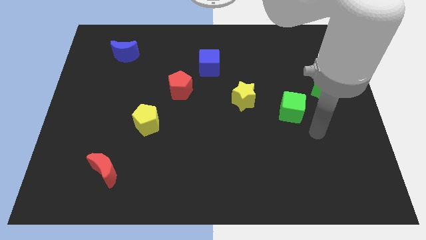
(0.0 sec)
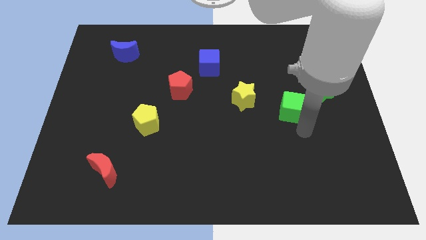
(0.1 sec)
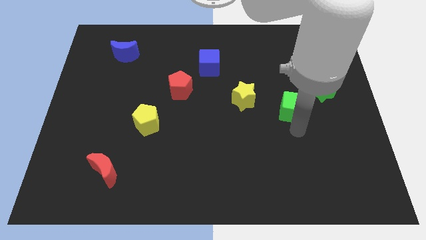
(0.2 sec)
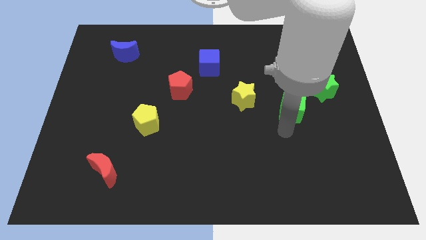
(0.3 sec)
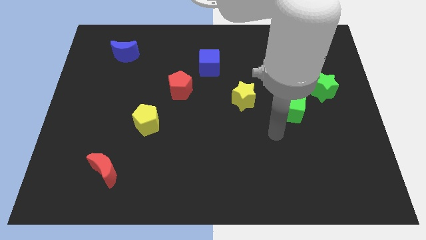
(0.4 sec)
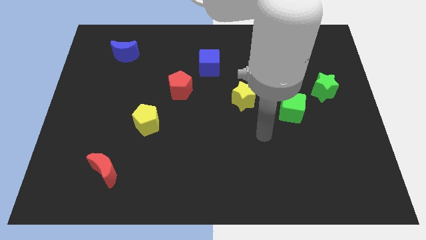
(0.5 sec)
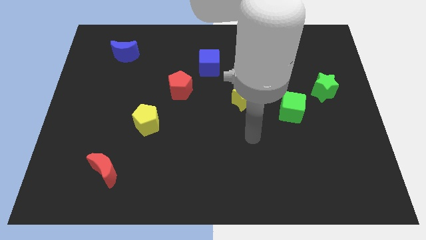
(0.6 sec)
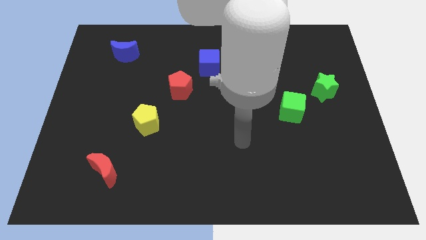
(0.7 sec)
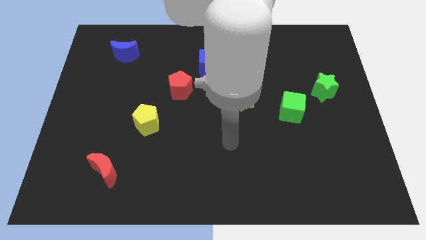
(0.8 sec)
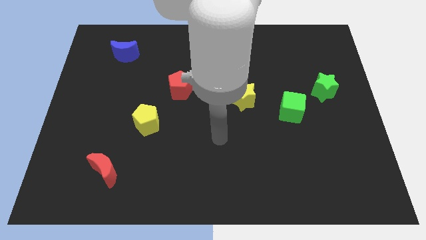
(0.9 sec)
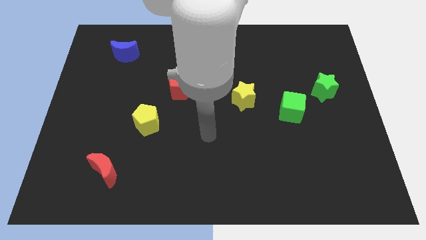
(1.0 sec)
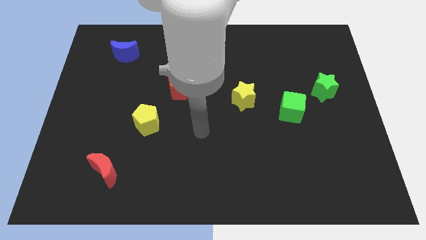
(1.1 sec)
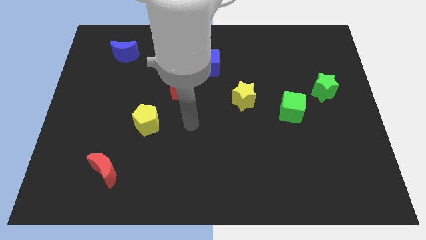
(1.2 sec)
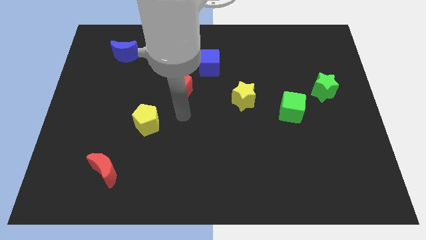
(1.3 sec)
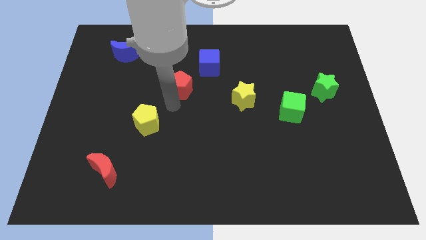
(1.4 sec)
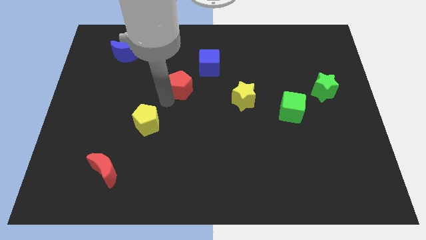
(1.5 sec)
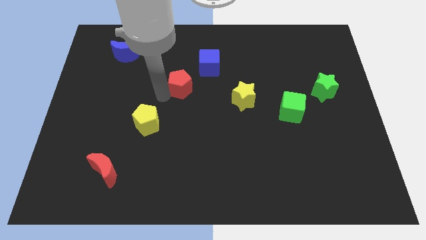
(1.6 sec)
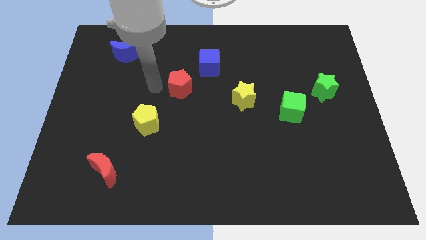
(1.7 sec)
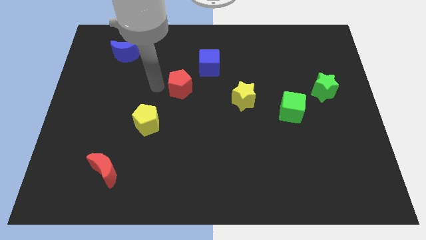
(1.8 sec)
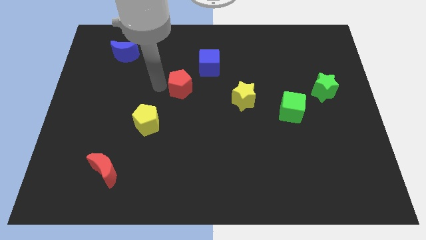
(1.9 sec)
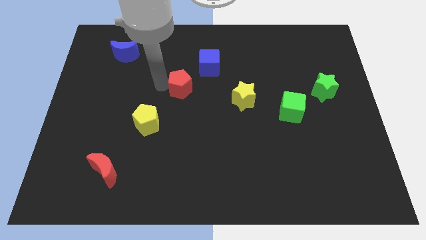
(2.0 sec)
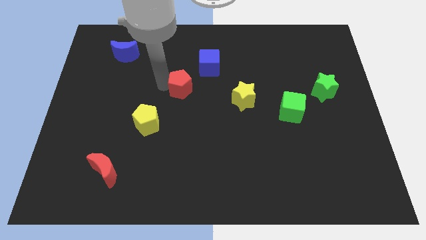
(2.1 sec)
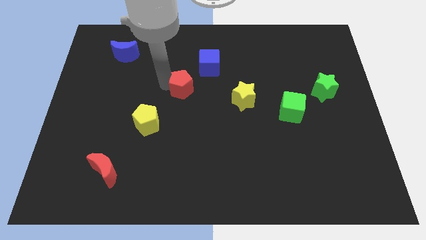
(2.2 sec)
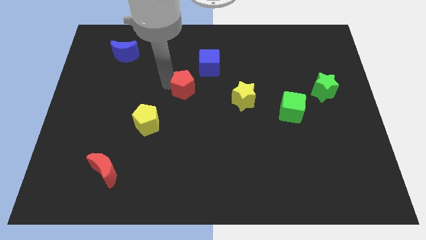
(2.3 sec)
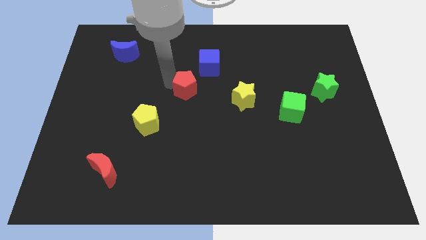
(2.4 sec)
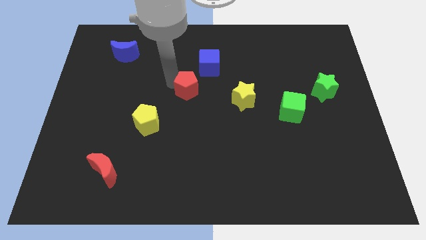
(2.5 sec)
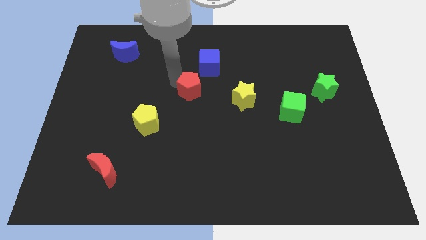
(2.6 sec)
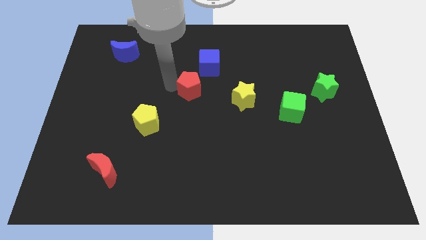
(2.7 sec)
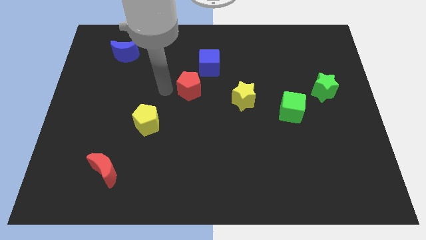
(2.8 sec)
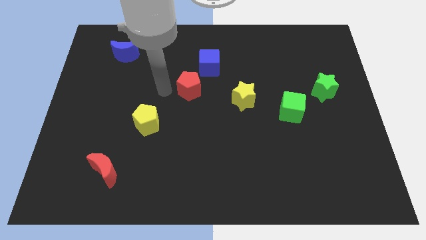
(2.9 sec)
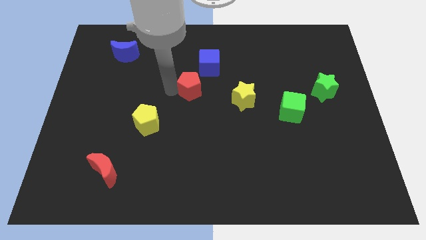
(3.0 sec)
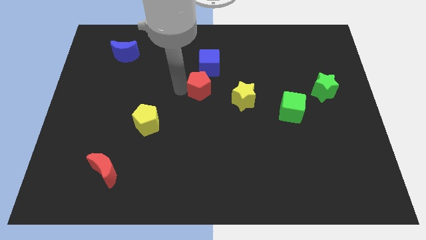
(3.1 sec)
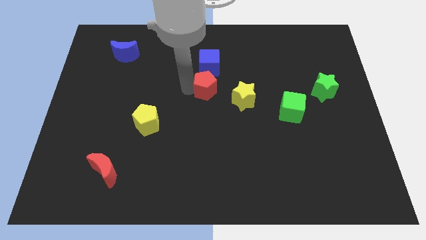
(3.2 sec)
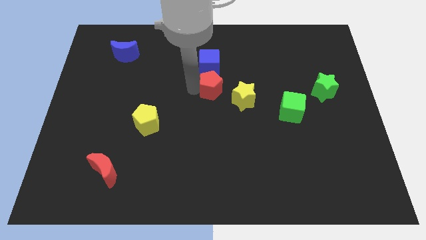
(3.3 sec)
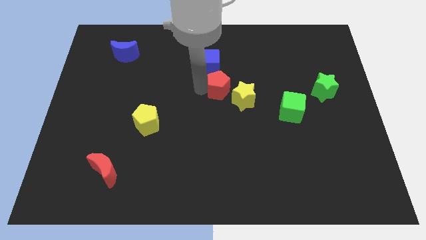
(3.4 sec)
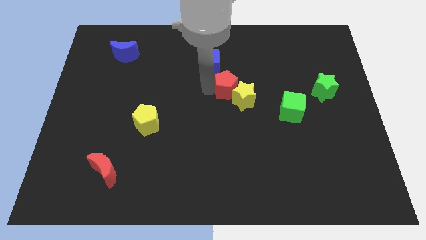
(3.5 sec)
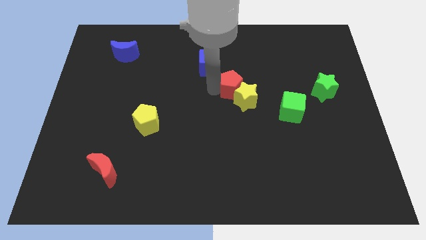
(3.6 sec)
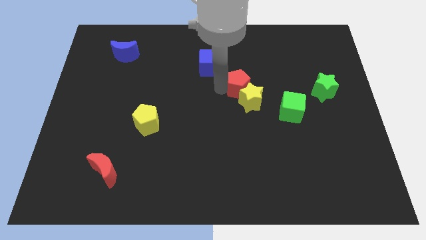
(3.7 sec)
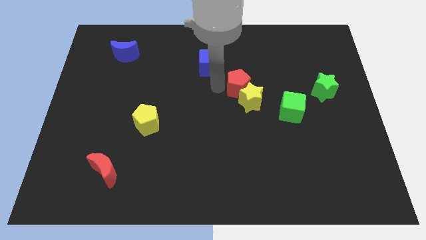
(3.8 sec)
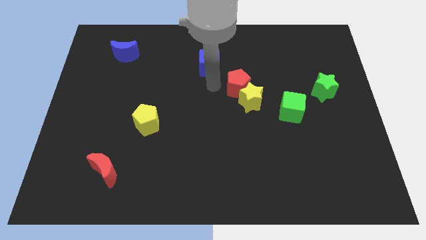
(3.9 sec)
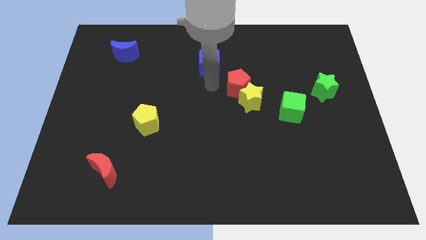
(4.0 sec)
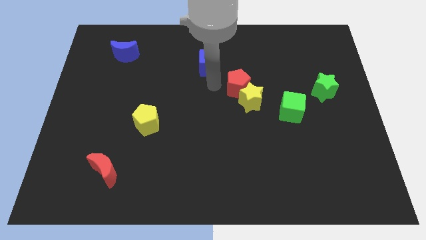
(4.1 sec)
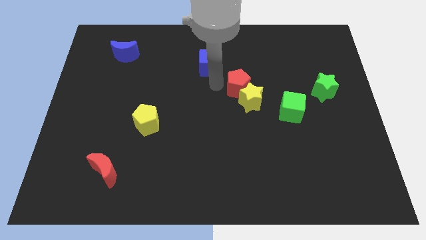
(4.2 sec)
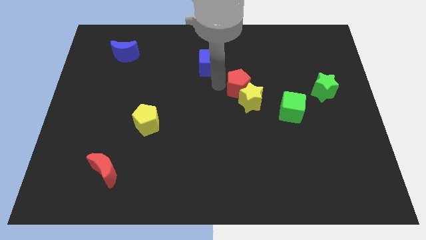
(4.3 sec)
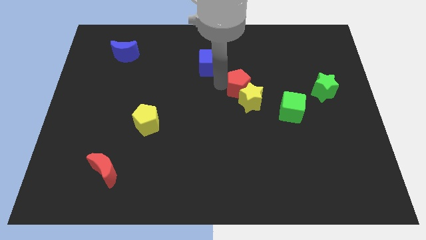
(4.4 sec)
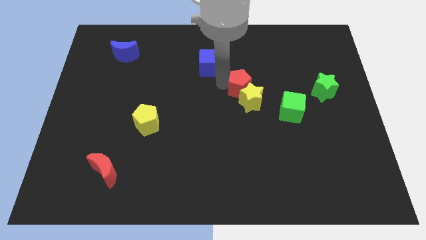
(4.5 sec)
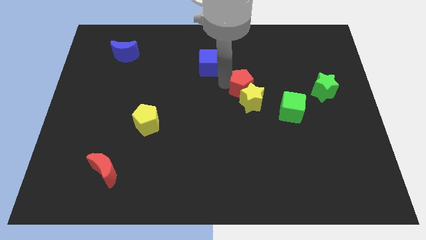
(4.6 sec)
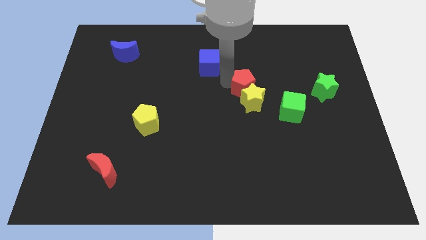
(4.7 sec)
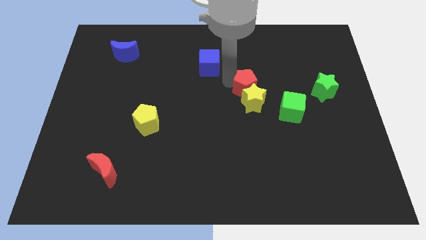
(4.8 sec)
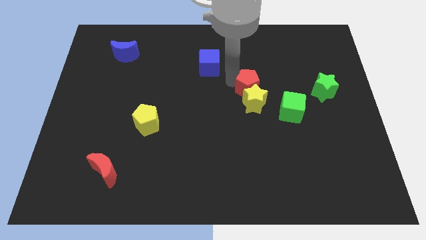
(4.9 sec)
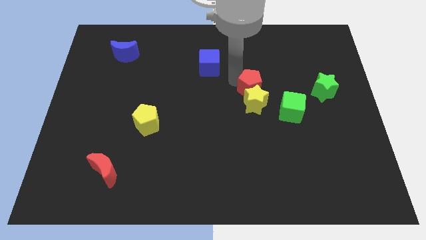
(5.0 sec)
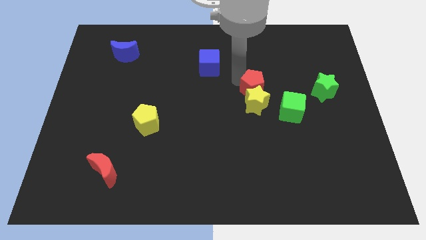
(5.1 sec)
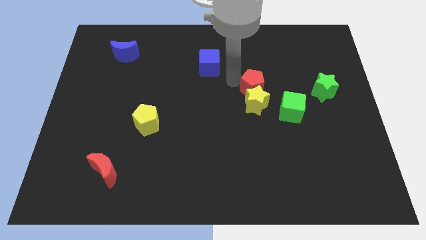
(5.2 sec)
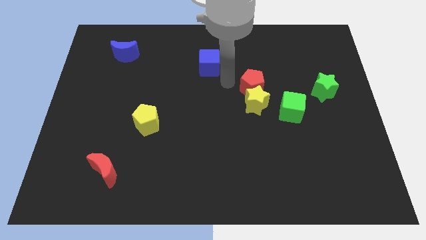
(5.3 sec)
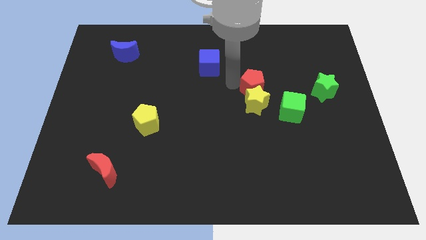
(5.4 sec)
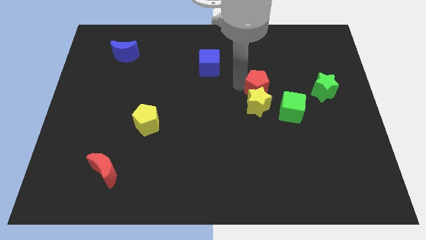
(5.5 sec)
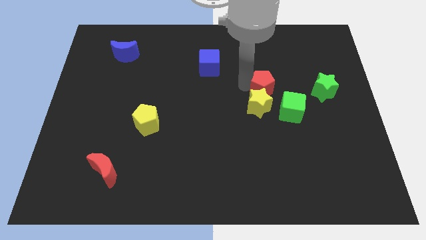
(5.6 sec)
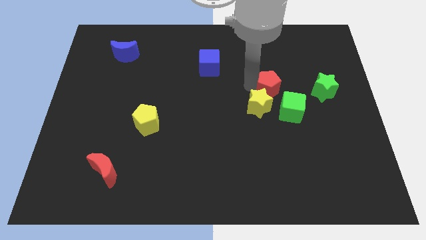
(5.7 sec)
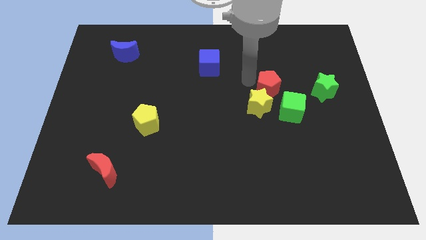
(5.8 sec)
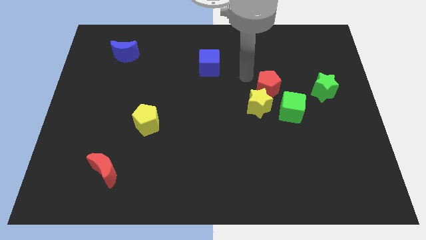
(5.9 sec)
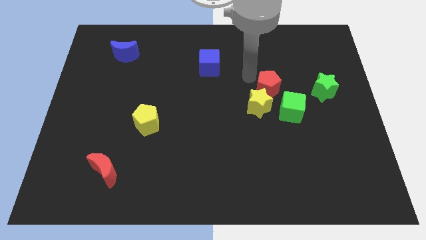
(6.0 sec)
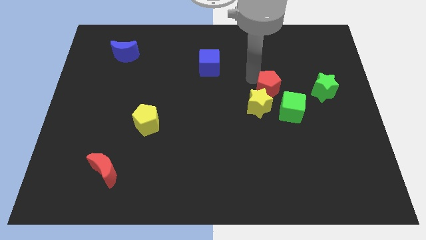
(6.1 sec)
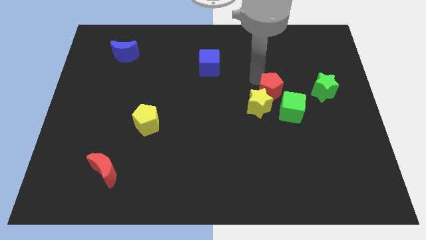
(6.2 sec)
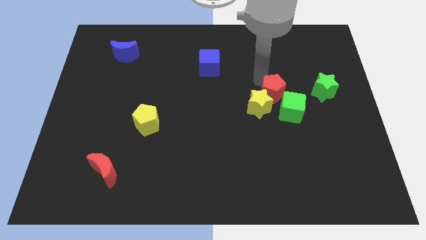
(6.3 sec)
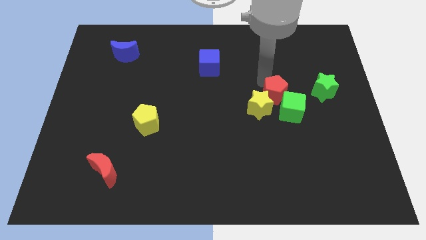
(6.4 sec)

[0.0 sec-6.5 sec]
slide the red pentagon to the right of the yellow star
